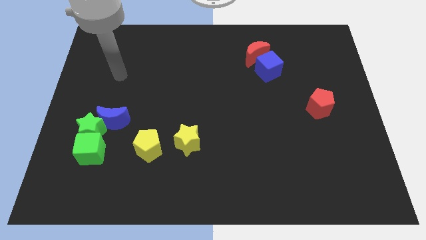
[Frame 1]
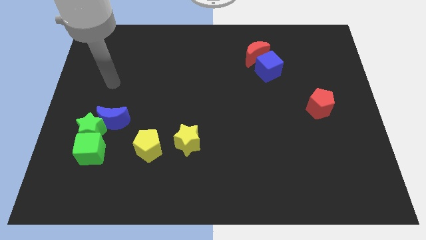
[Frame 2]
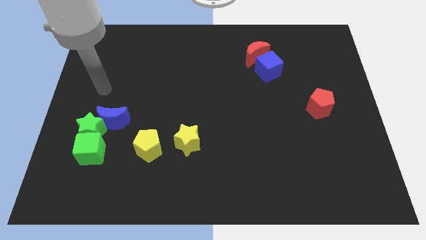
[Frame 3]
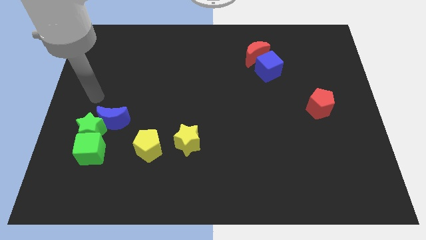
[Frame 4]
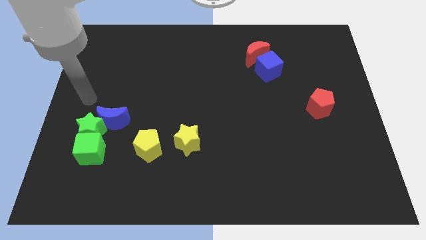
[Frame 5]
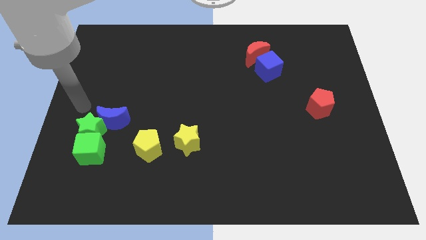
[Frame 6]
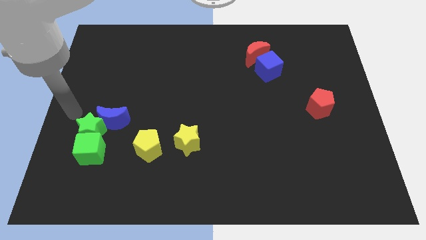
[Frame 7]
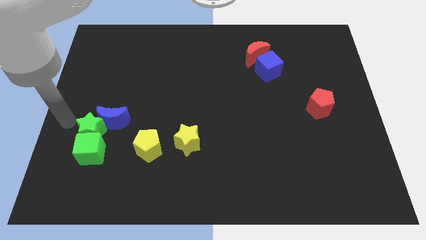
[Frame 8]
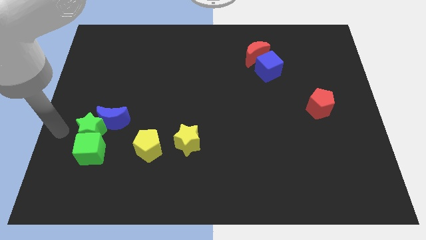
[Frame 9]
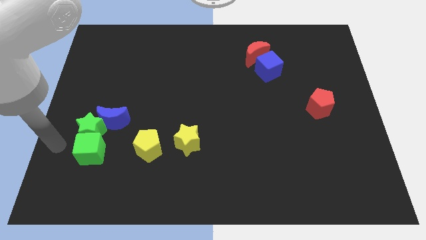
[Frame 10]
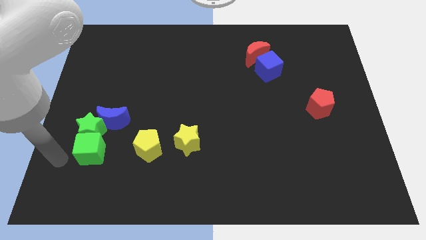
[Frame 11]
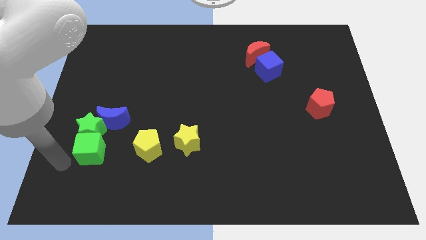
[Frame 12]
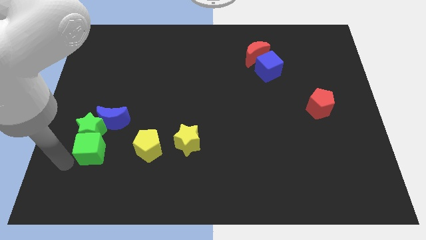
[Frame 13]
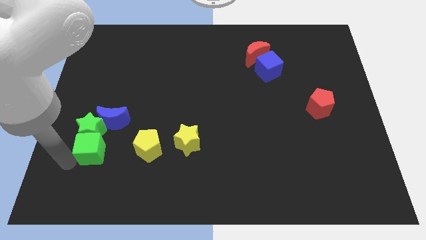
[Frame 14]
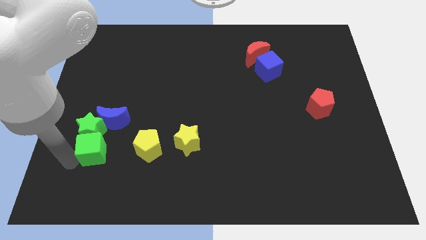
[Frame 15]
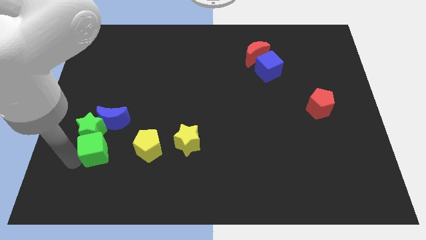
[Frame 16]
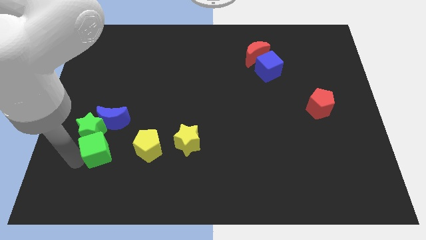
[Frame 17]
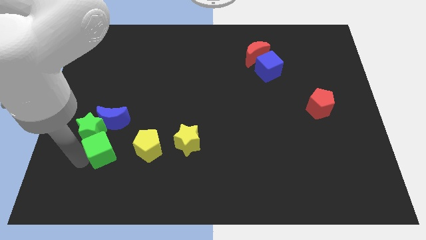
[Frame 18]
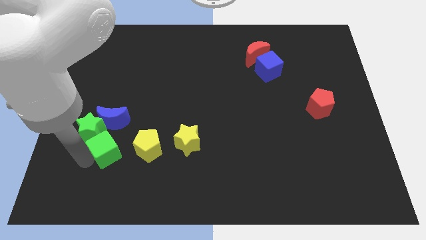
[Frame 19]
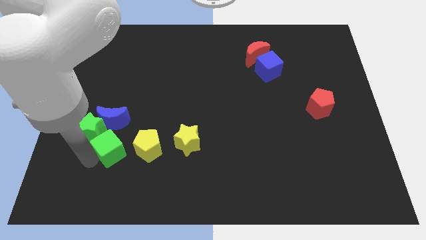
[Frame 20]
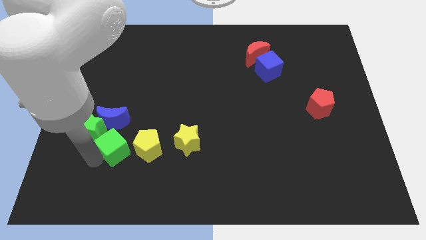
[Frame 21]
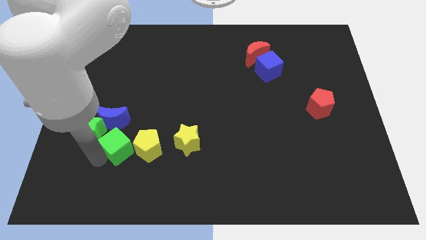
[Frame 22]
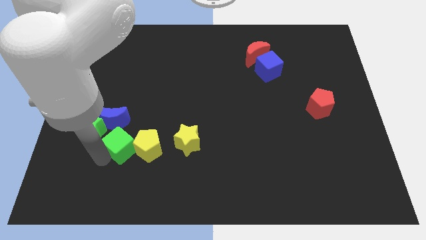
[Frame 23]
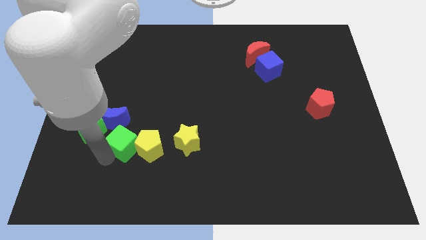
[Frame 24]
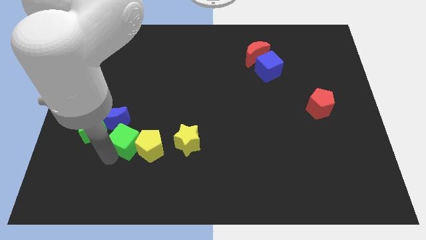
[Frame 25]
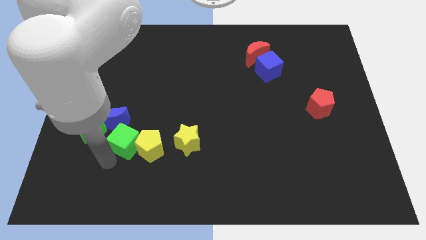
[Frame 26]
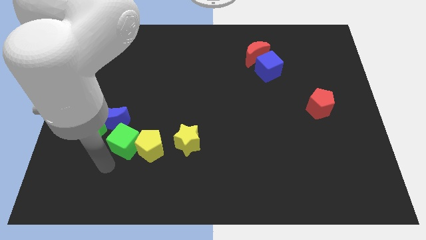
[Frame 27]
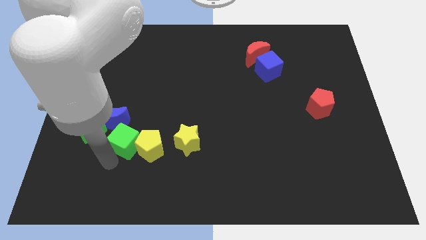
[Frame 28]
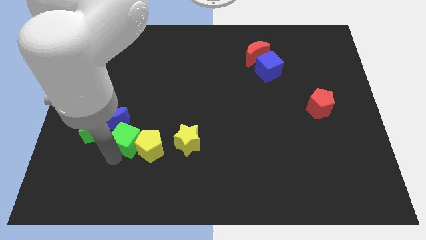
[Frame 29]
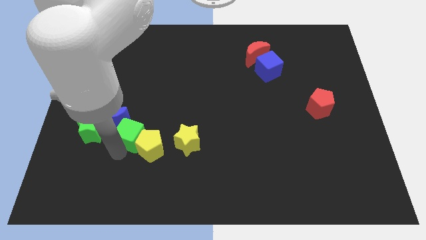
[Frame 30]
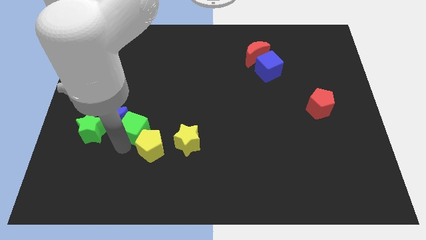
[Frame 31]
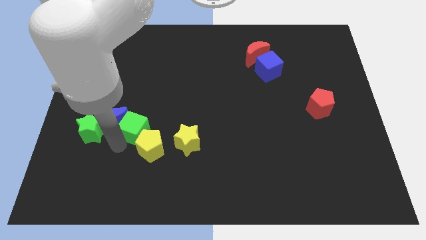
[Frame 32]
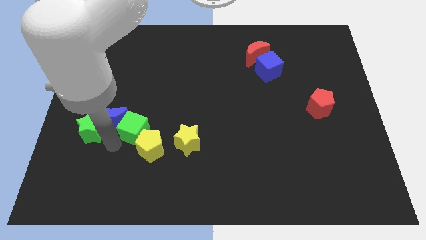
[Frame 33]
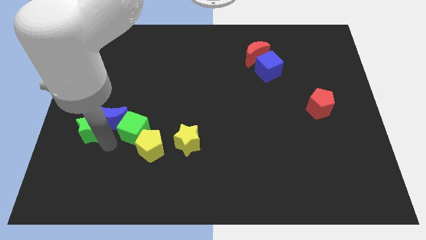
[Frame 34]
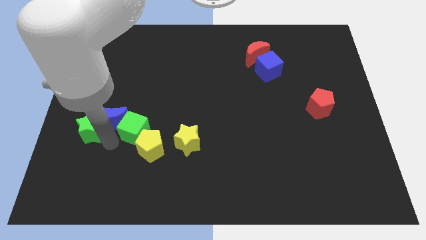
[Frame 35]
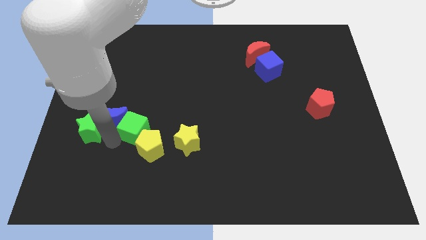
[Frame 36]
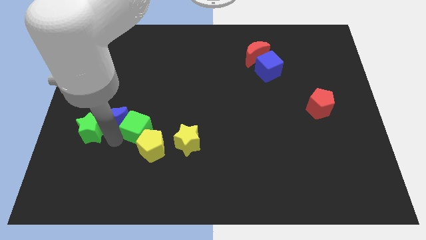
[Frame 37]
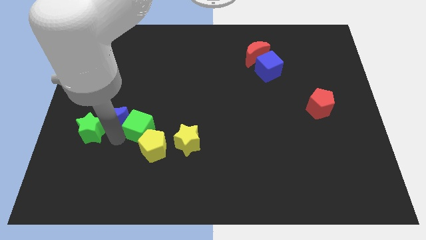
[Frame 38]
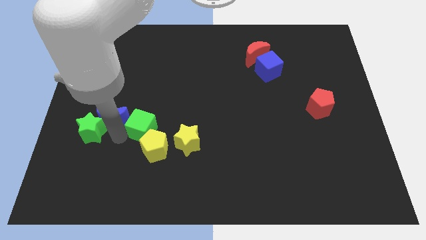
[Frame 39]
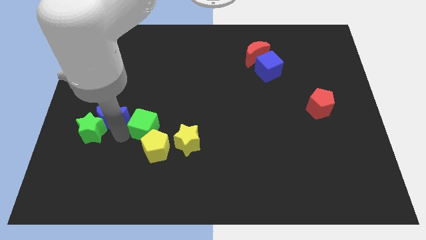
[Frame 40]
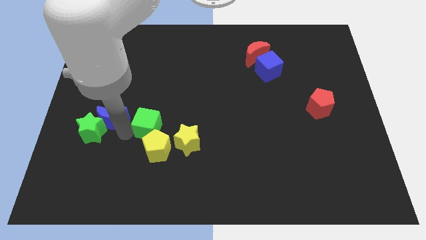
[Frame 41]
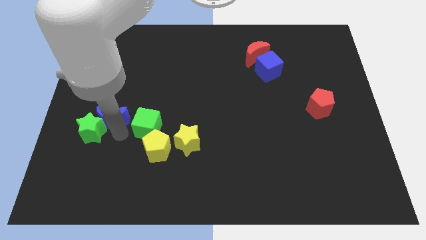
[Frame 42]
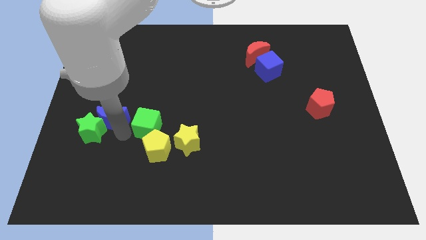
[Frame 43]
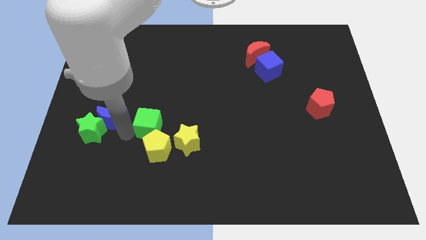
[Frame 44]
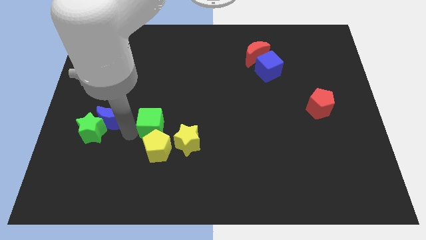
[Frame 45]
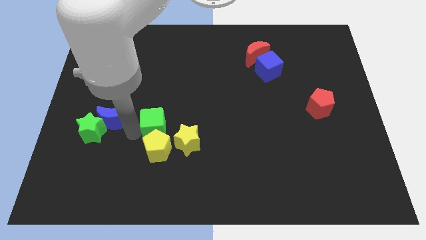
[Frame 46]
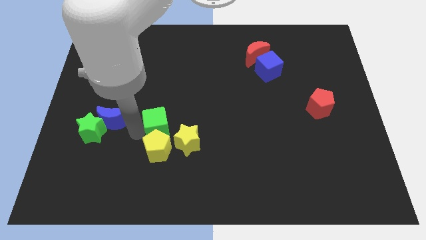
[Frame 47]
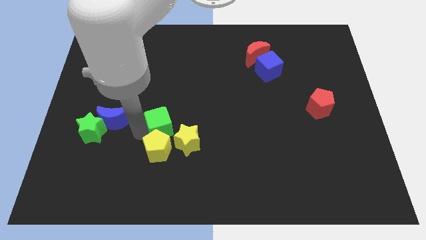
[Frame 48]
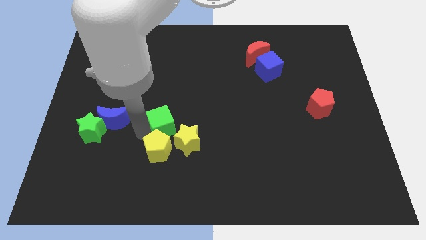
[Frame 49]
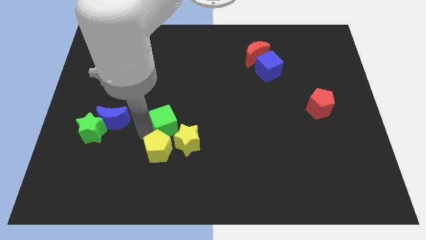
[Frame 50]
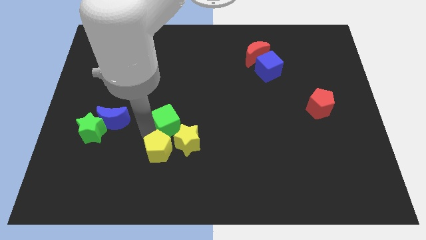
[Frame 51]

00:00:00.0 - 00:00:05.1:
put the green cube to the middle of the board

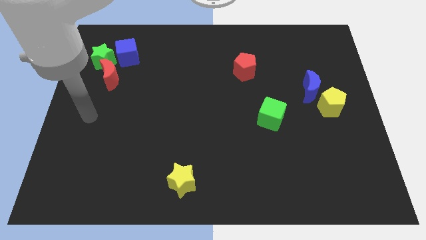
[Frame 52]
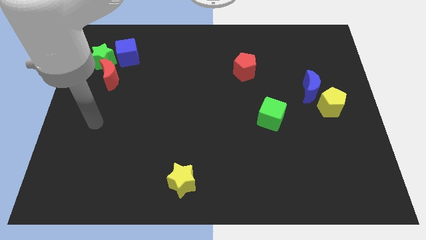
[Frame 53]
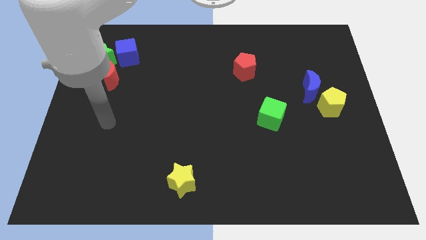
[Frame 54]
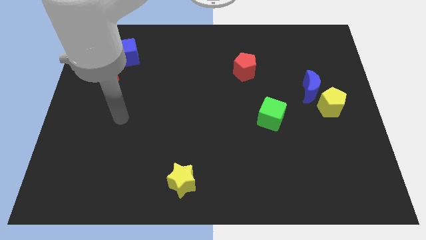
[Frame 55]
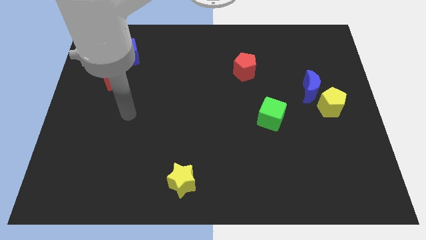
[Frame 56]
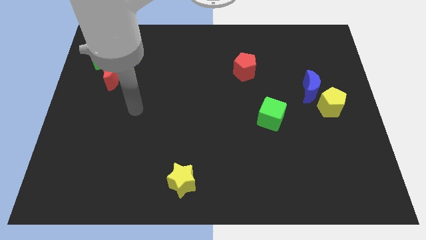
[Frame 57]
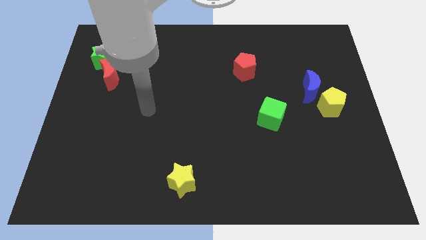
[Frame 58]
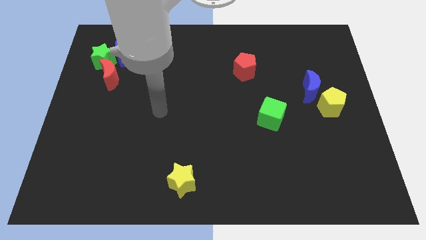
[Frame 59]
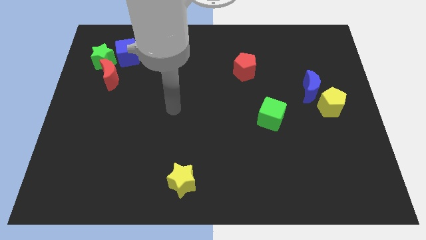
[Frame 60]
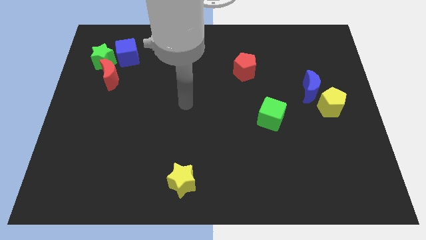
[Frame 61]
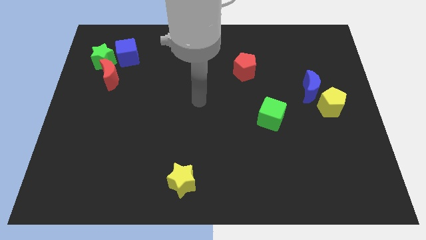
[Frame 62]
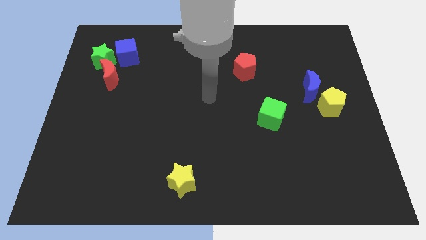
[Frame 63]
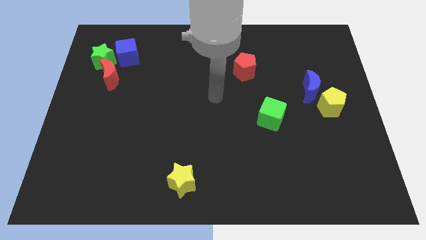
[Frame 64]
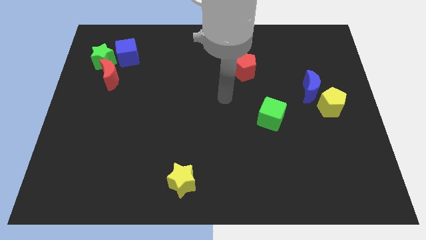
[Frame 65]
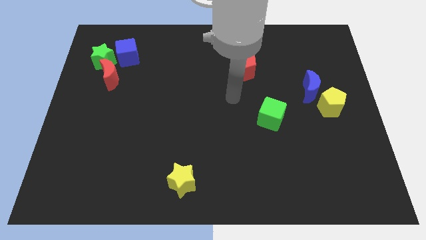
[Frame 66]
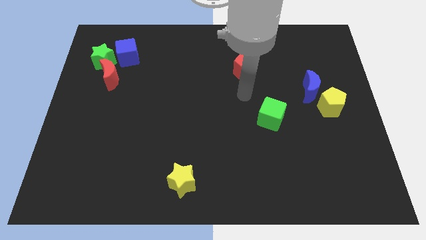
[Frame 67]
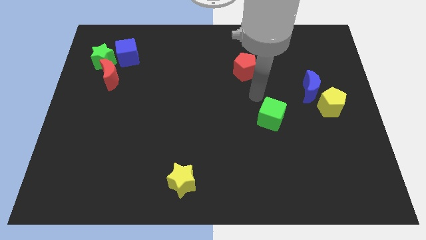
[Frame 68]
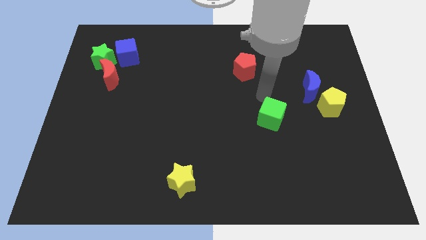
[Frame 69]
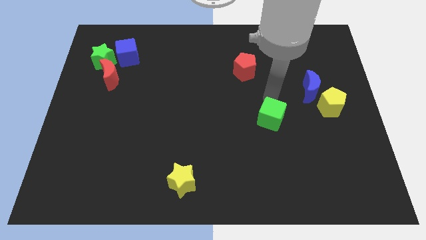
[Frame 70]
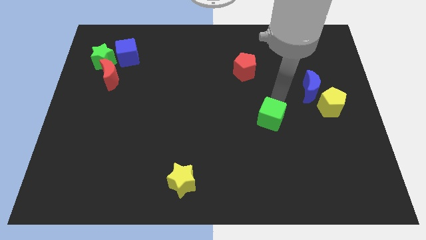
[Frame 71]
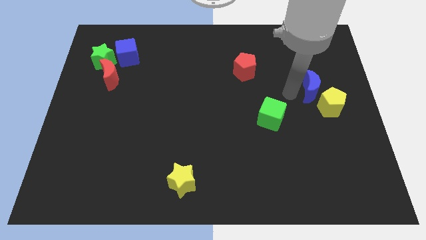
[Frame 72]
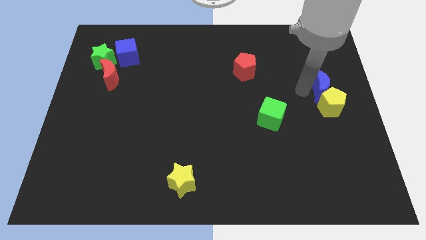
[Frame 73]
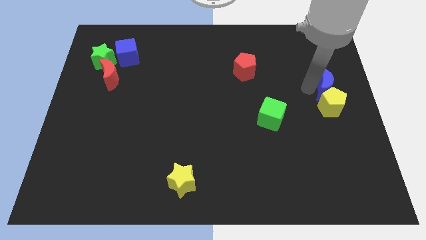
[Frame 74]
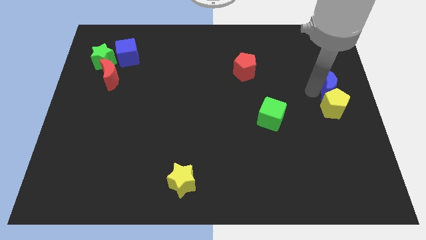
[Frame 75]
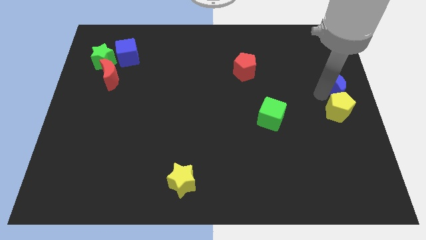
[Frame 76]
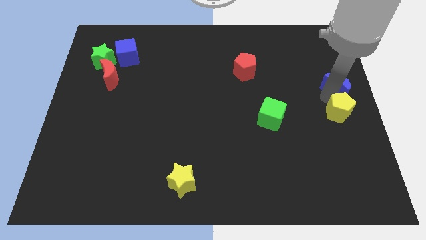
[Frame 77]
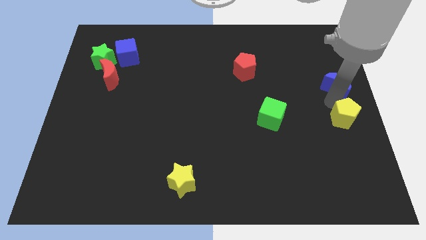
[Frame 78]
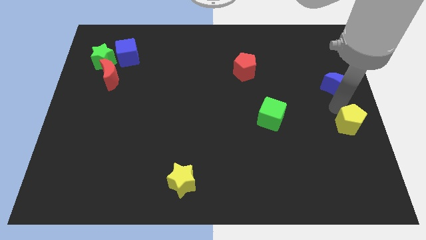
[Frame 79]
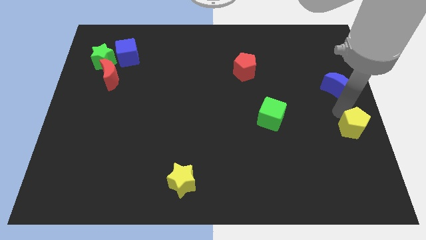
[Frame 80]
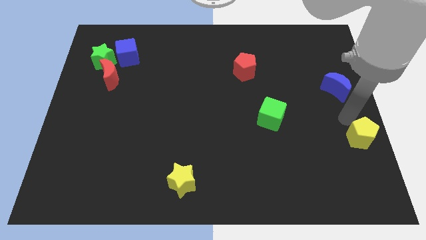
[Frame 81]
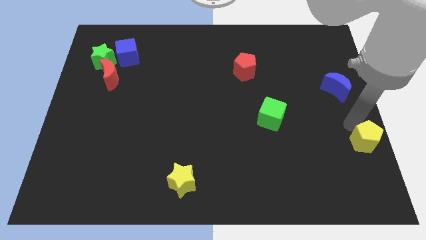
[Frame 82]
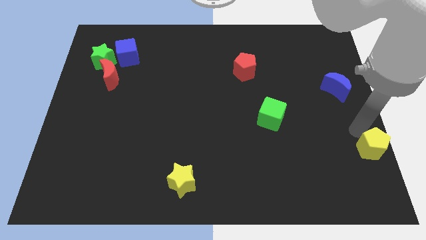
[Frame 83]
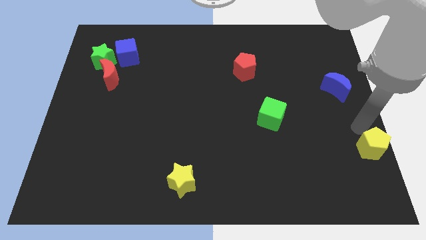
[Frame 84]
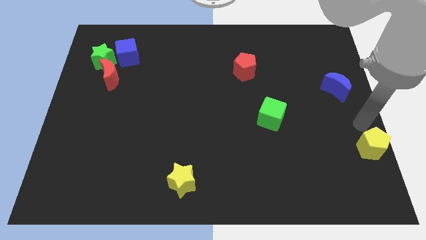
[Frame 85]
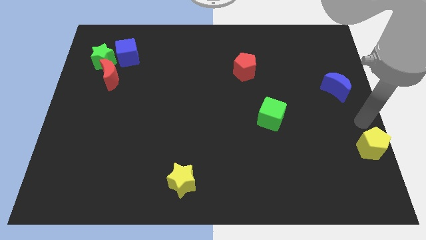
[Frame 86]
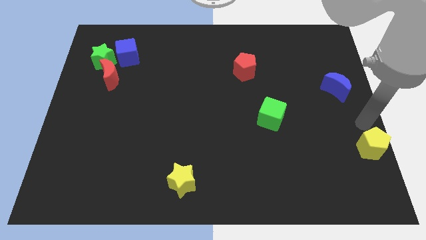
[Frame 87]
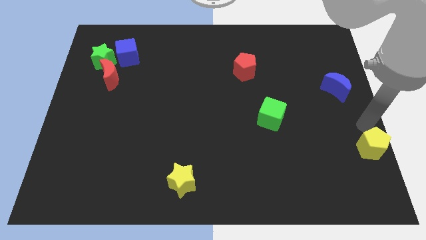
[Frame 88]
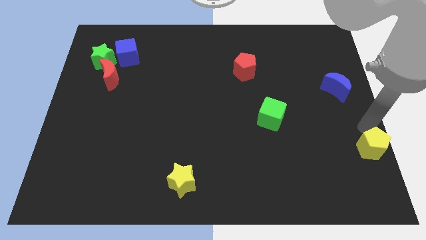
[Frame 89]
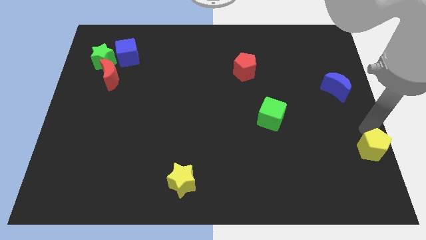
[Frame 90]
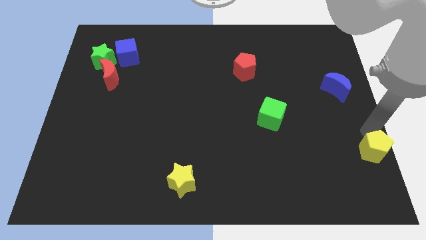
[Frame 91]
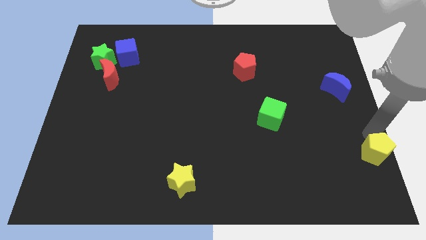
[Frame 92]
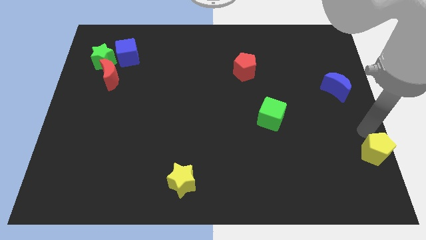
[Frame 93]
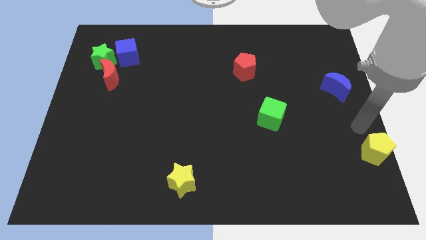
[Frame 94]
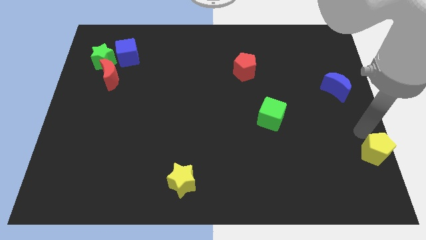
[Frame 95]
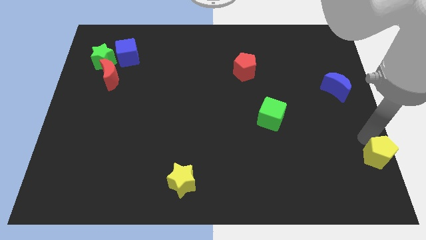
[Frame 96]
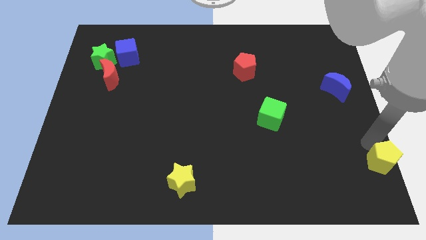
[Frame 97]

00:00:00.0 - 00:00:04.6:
push the yellow pentagon to the bottom right corner
